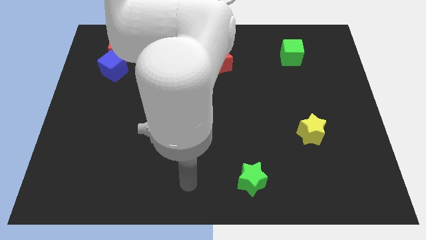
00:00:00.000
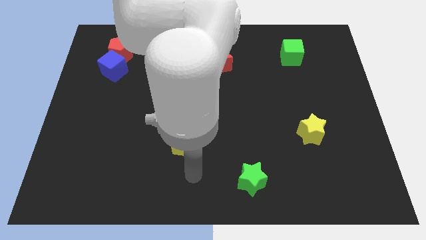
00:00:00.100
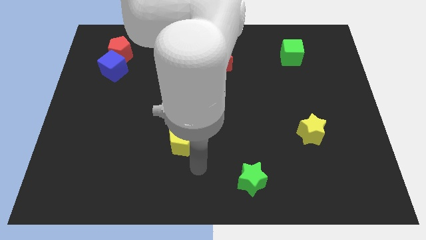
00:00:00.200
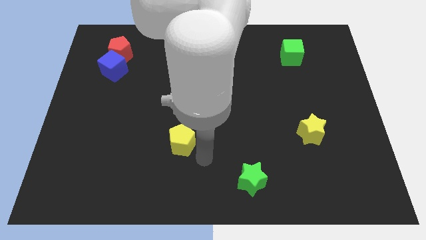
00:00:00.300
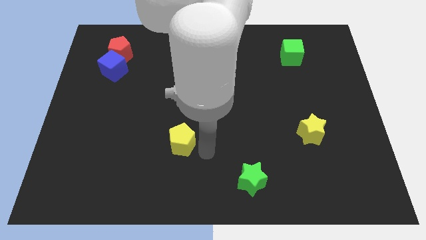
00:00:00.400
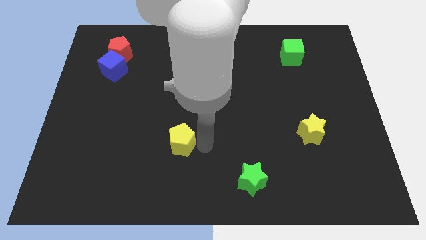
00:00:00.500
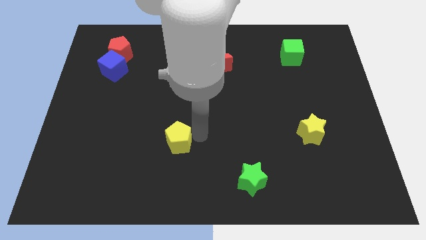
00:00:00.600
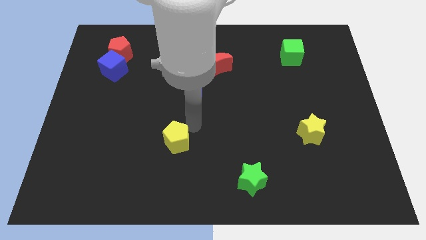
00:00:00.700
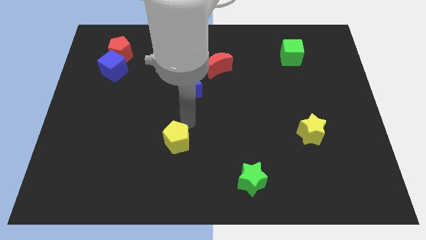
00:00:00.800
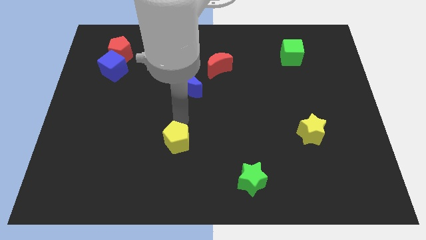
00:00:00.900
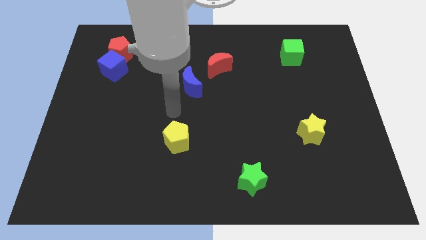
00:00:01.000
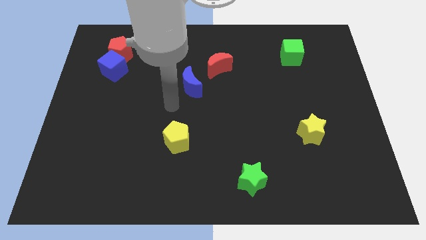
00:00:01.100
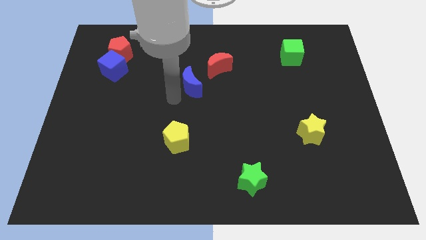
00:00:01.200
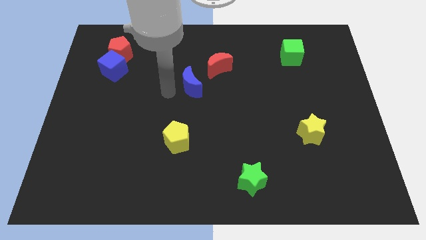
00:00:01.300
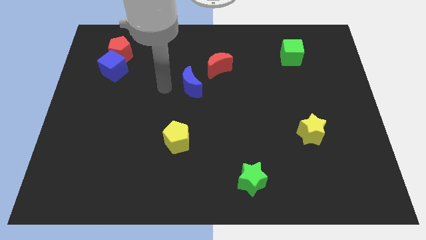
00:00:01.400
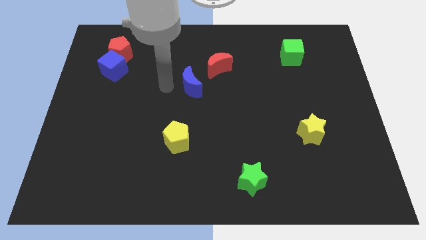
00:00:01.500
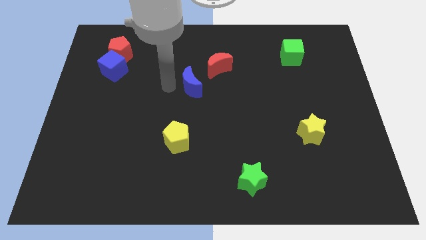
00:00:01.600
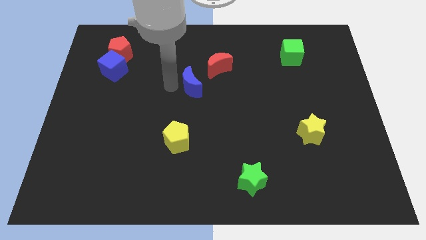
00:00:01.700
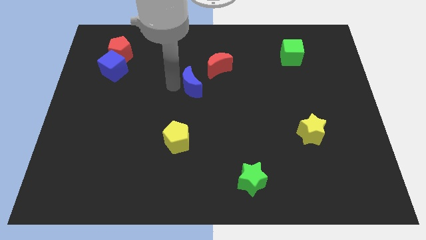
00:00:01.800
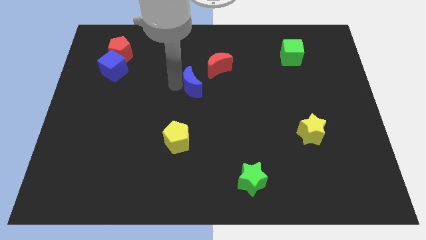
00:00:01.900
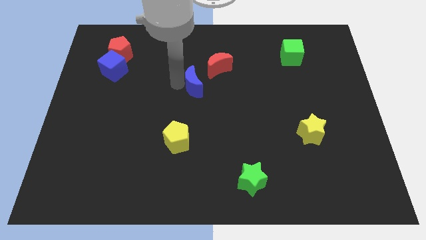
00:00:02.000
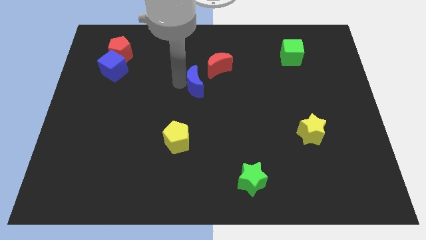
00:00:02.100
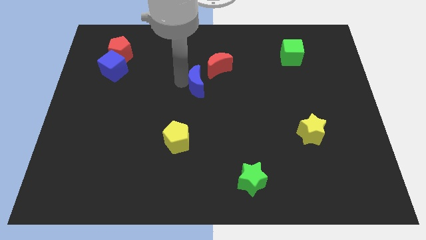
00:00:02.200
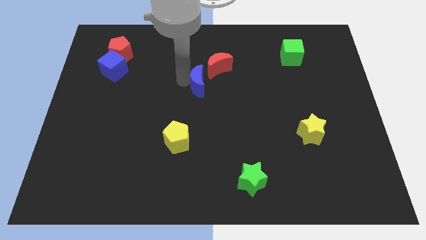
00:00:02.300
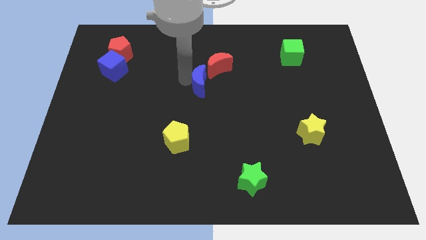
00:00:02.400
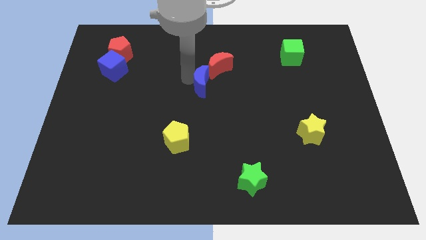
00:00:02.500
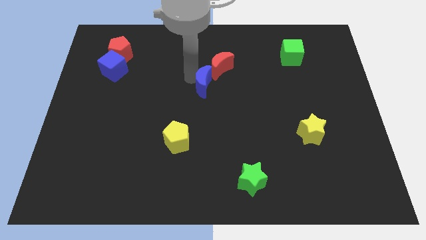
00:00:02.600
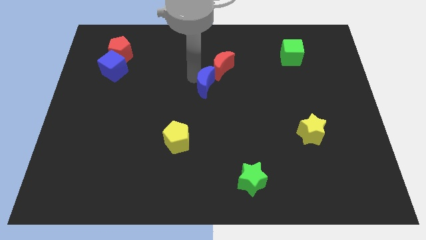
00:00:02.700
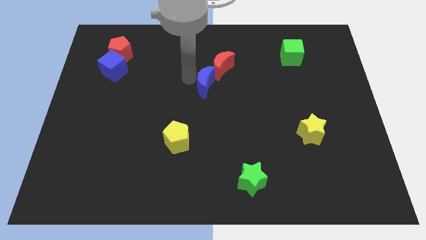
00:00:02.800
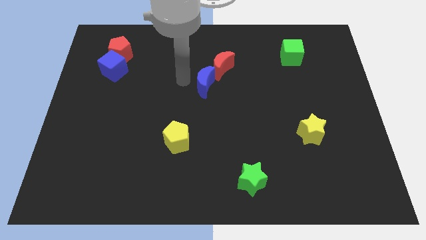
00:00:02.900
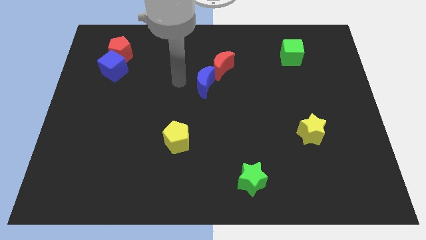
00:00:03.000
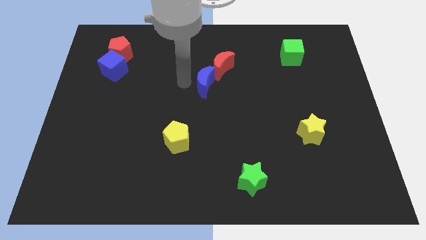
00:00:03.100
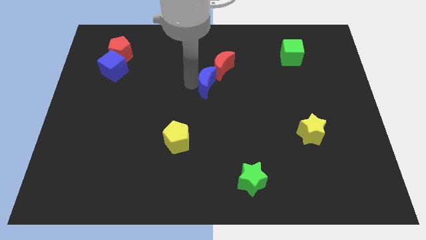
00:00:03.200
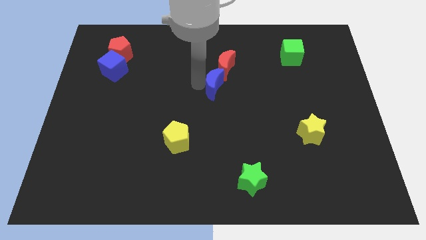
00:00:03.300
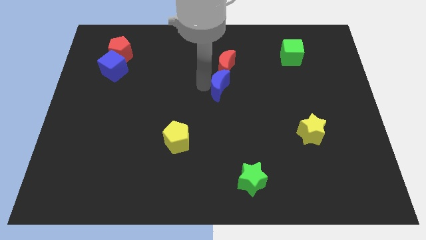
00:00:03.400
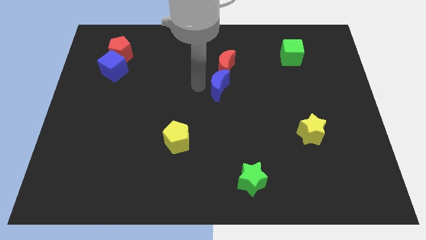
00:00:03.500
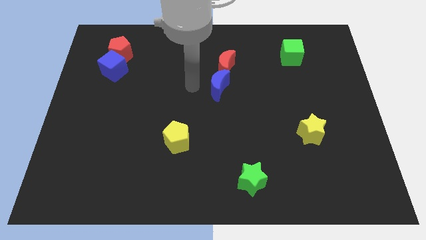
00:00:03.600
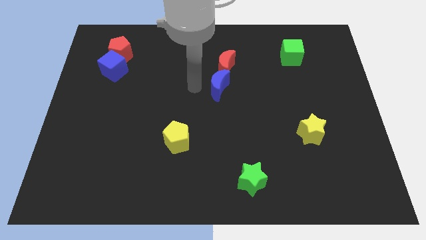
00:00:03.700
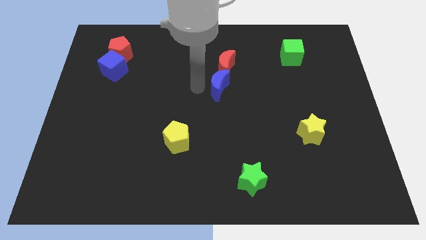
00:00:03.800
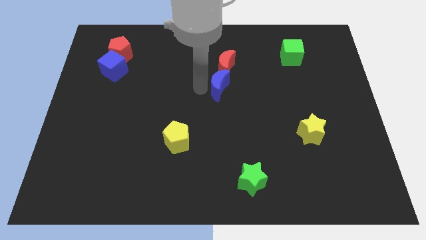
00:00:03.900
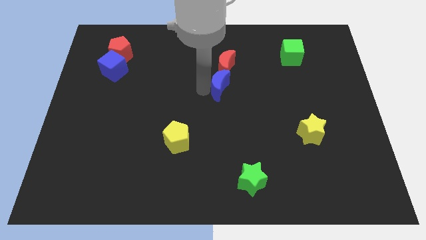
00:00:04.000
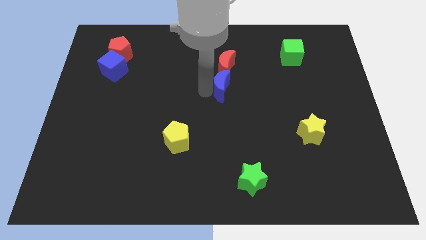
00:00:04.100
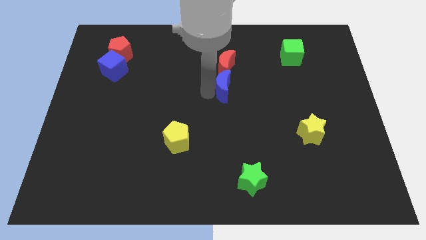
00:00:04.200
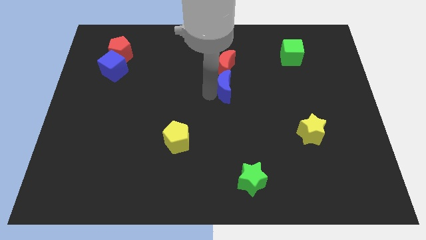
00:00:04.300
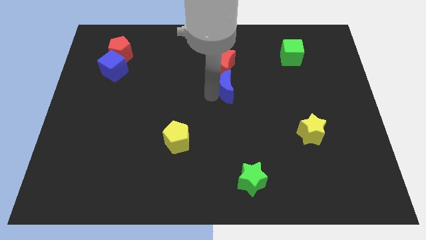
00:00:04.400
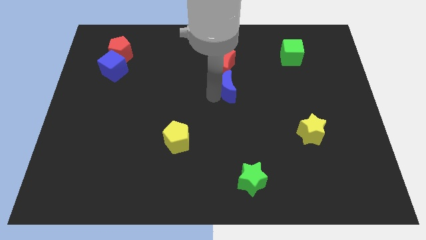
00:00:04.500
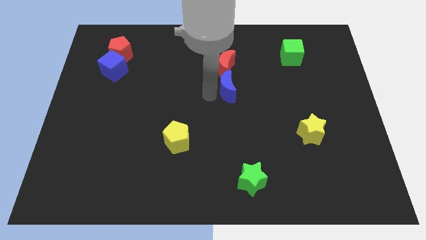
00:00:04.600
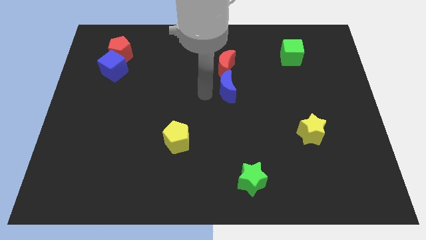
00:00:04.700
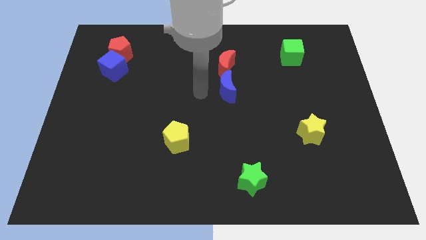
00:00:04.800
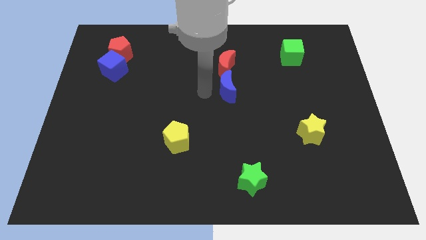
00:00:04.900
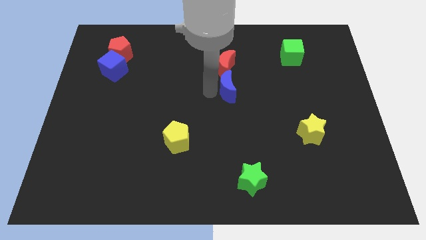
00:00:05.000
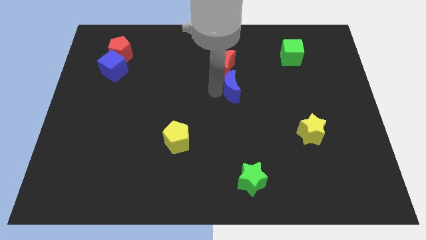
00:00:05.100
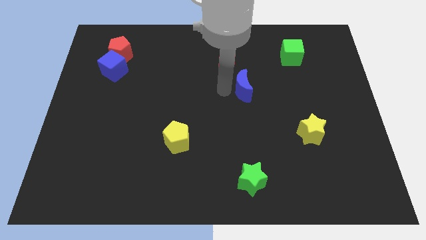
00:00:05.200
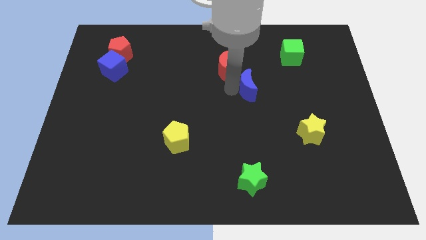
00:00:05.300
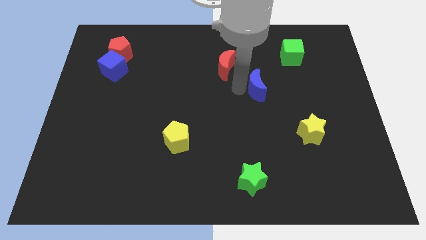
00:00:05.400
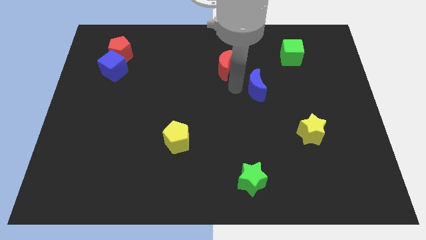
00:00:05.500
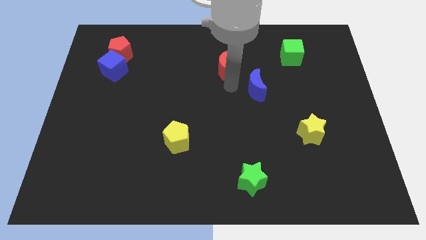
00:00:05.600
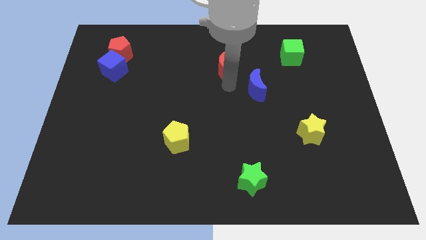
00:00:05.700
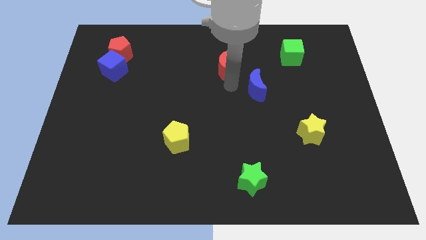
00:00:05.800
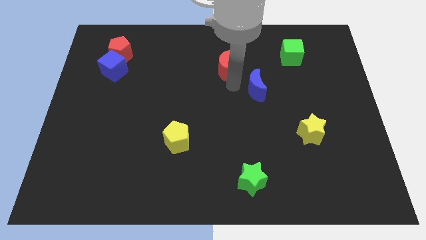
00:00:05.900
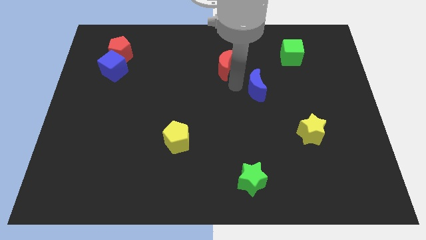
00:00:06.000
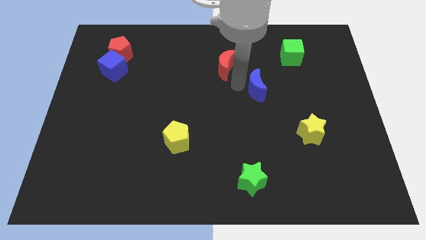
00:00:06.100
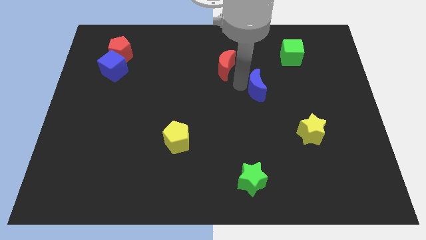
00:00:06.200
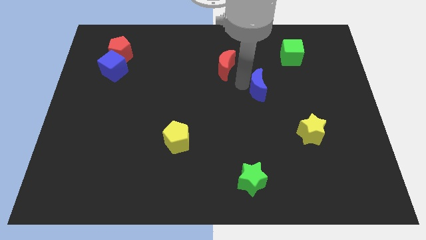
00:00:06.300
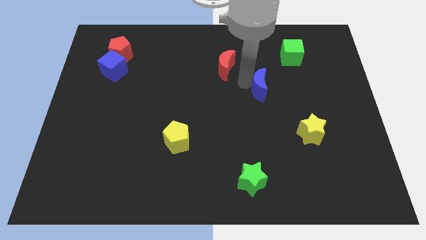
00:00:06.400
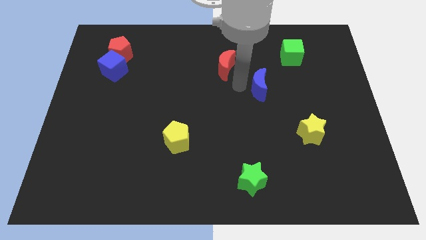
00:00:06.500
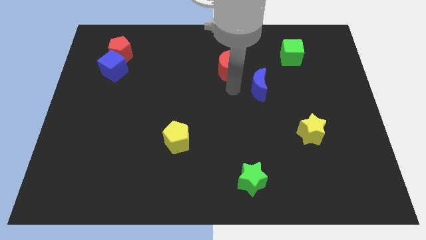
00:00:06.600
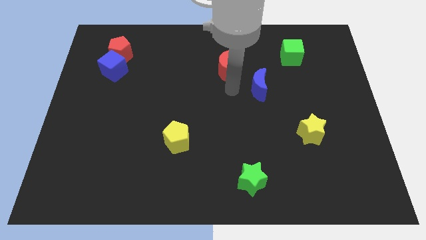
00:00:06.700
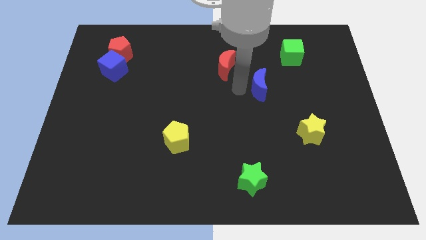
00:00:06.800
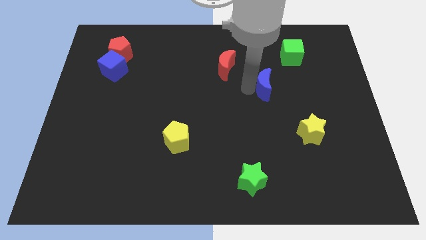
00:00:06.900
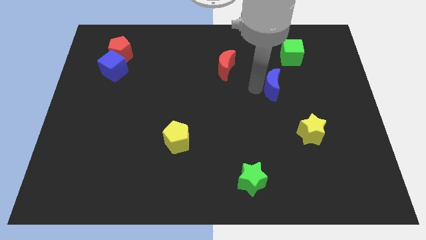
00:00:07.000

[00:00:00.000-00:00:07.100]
slide the blue moon right

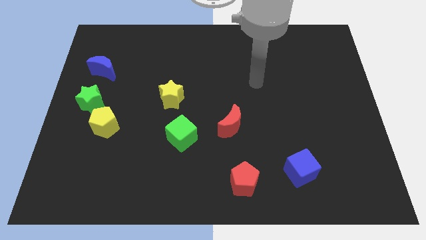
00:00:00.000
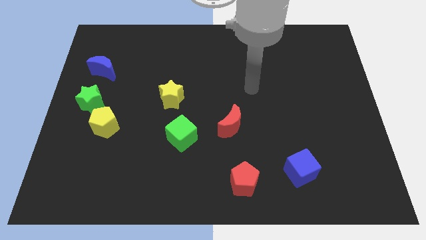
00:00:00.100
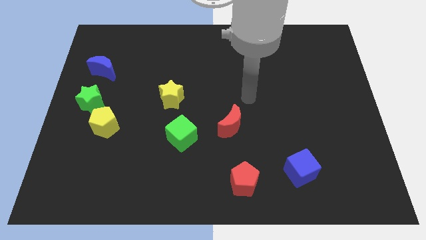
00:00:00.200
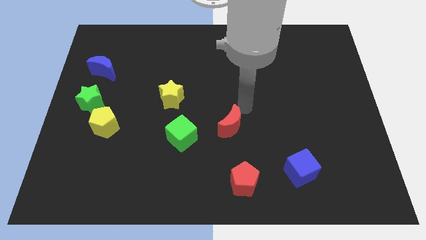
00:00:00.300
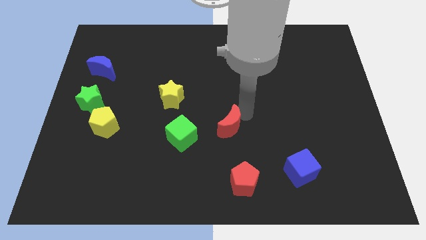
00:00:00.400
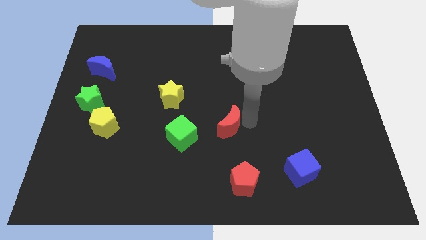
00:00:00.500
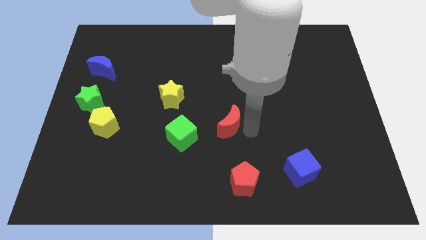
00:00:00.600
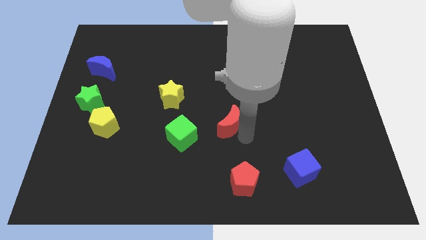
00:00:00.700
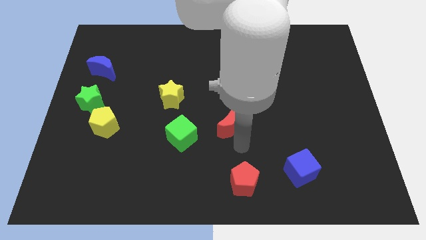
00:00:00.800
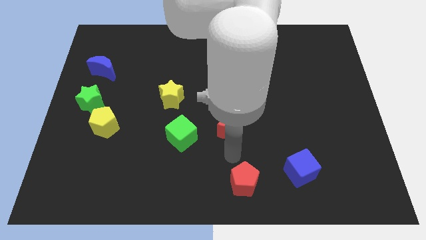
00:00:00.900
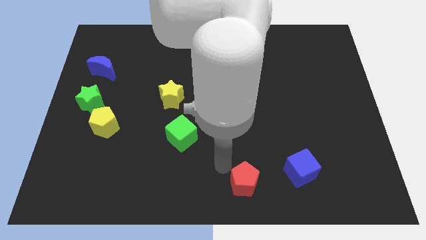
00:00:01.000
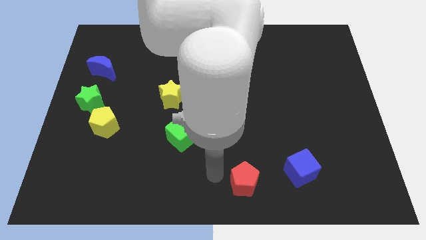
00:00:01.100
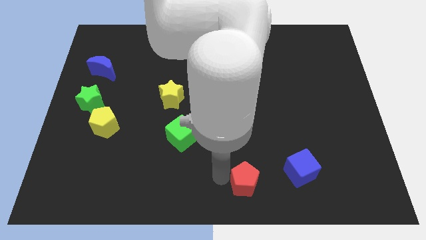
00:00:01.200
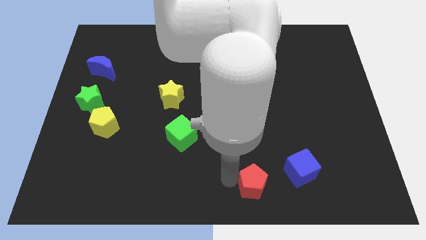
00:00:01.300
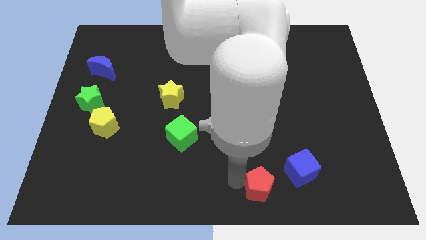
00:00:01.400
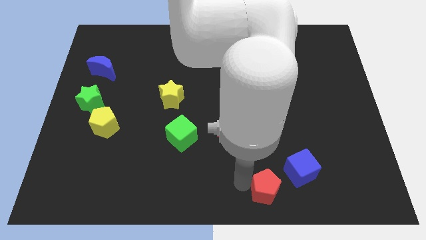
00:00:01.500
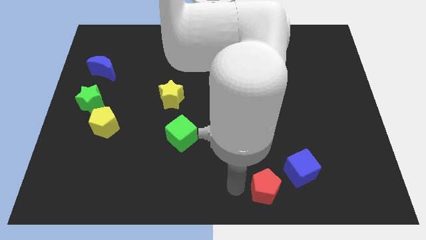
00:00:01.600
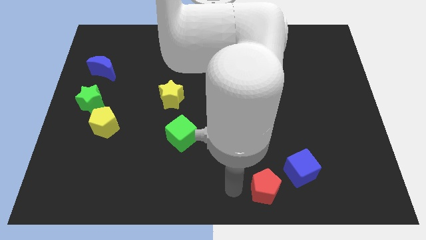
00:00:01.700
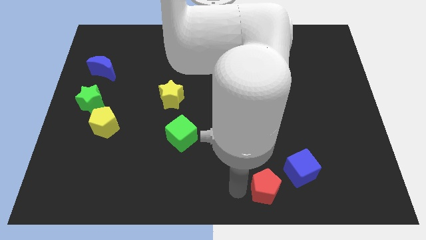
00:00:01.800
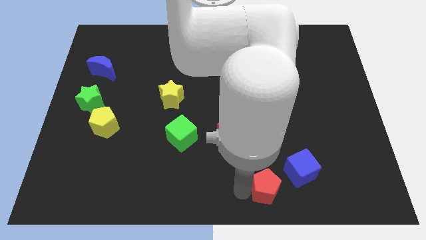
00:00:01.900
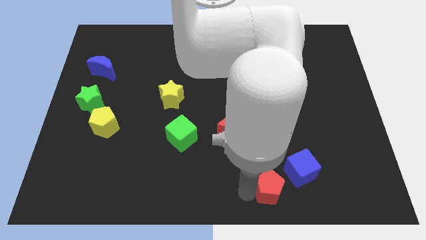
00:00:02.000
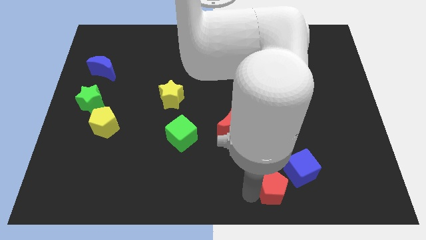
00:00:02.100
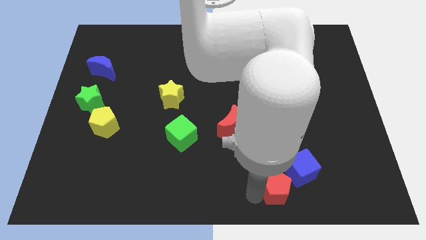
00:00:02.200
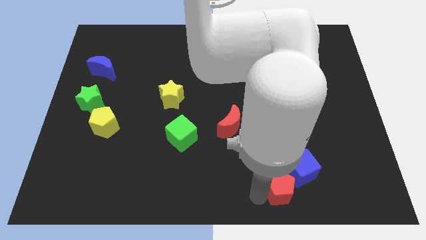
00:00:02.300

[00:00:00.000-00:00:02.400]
slide the red pentagon a little bit right
